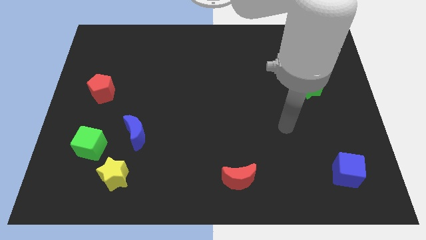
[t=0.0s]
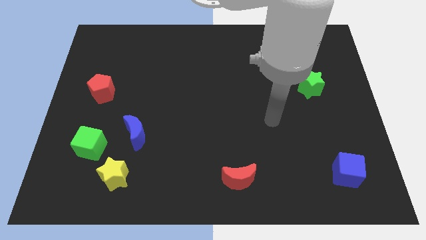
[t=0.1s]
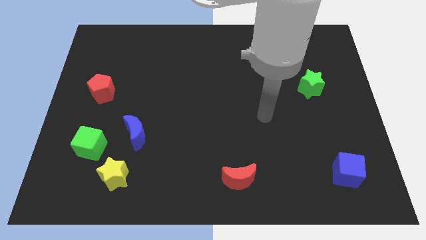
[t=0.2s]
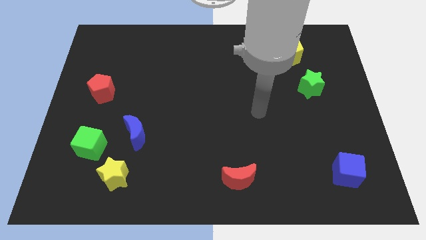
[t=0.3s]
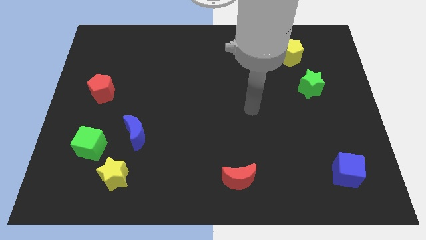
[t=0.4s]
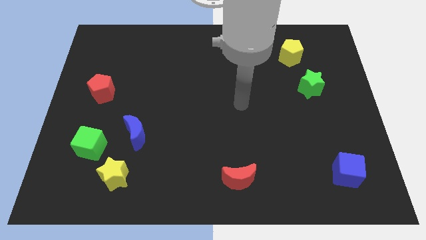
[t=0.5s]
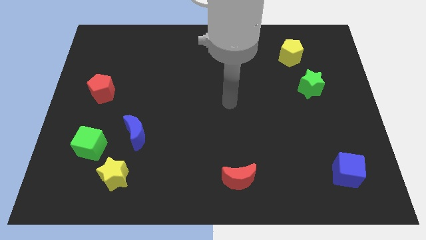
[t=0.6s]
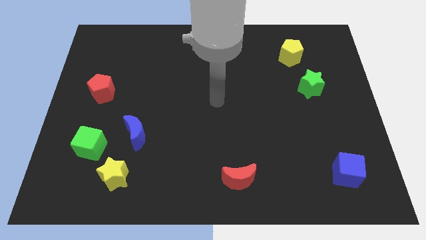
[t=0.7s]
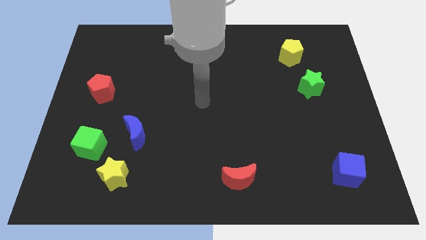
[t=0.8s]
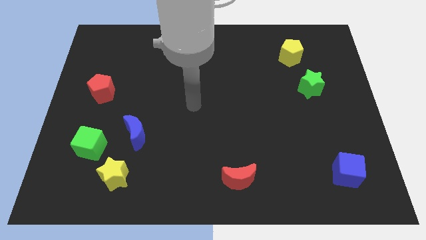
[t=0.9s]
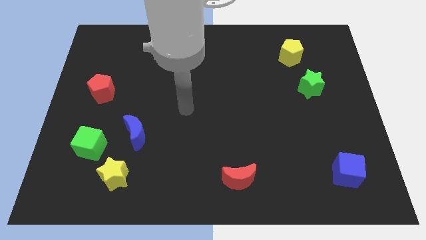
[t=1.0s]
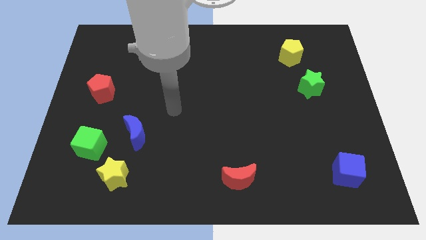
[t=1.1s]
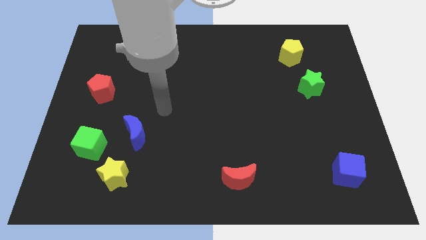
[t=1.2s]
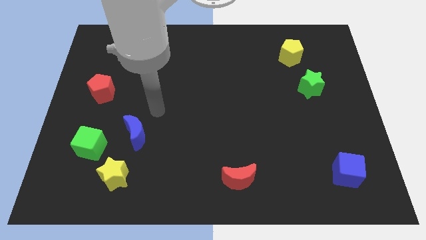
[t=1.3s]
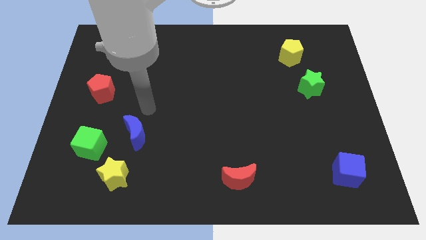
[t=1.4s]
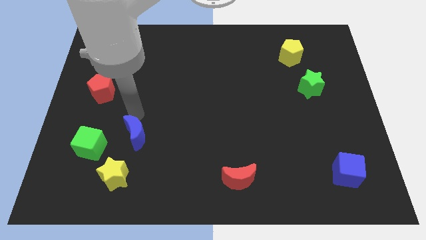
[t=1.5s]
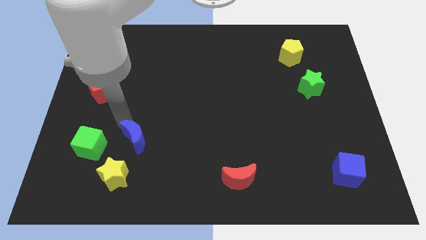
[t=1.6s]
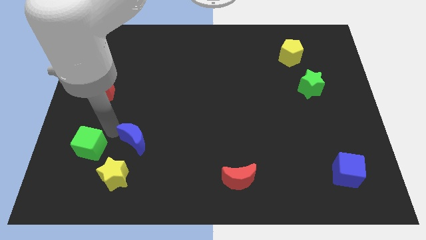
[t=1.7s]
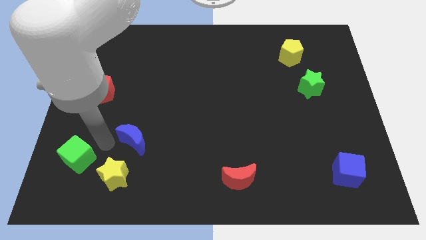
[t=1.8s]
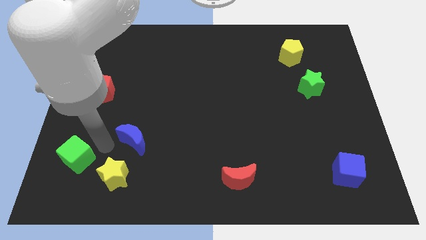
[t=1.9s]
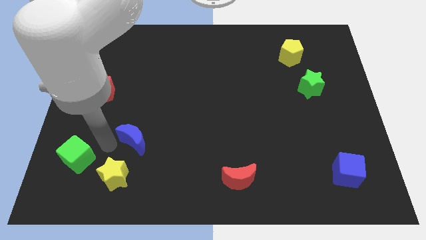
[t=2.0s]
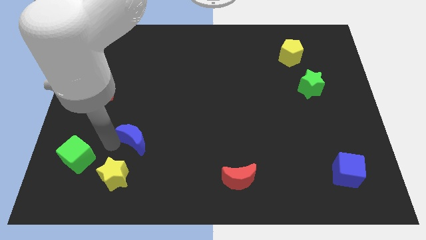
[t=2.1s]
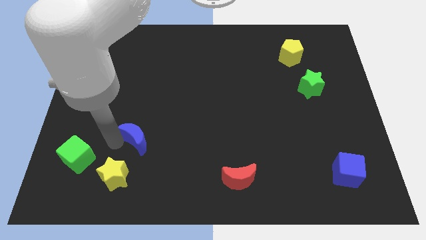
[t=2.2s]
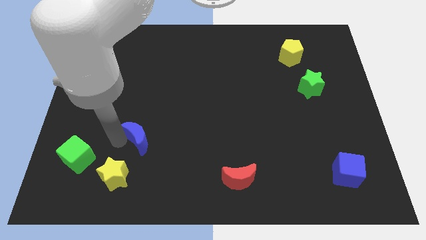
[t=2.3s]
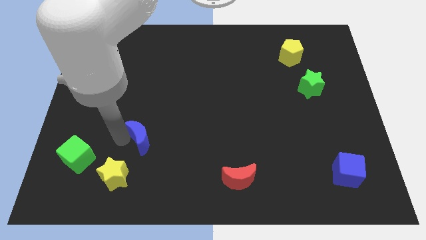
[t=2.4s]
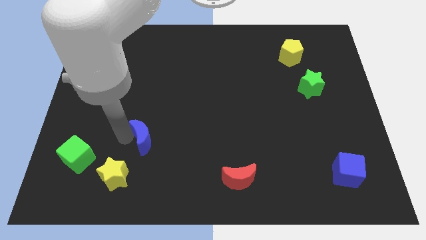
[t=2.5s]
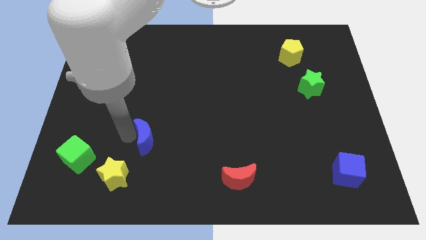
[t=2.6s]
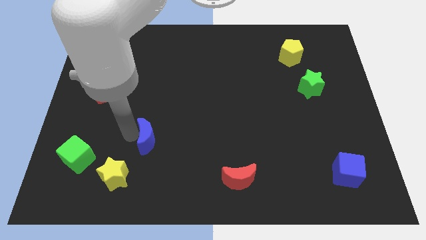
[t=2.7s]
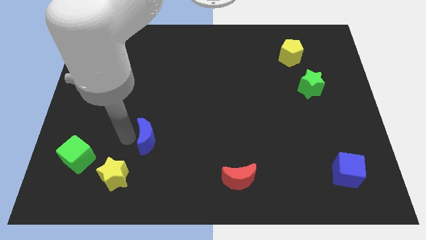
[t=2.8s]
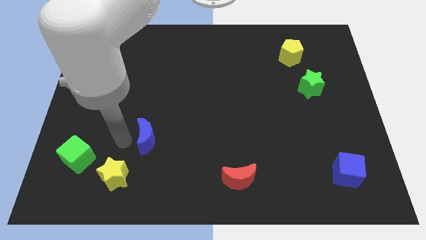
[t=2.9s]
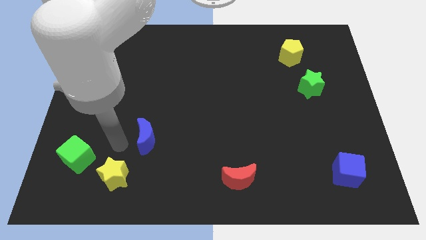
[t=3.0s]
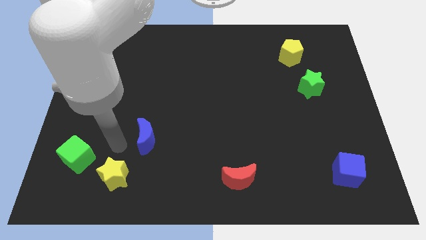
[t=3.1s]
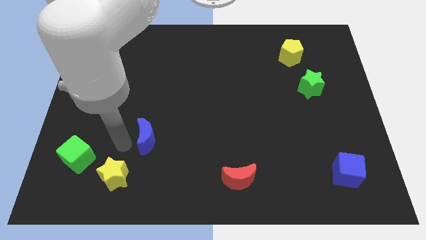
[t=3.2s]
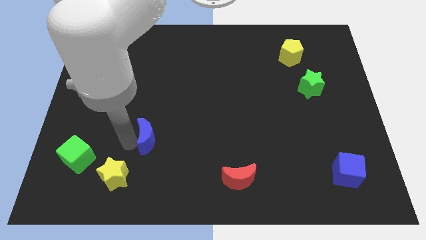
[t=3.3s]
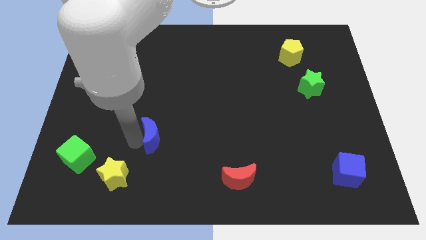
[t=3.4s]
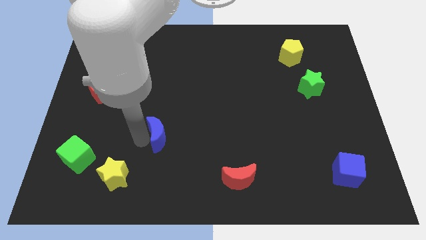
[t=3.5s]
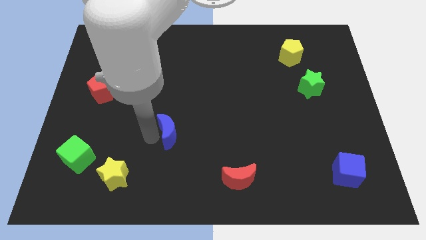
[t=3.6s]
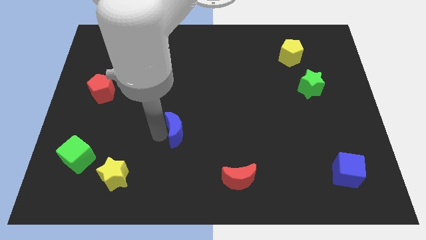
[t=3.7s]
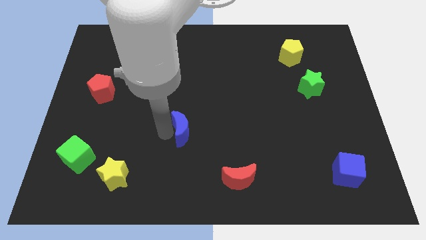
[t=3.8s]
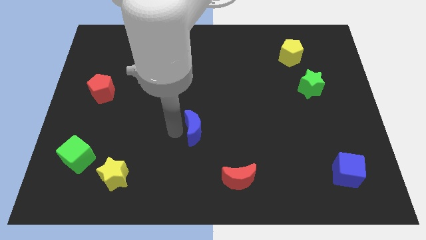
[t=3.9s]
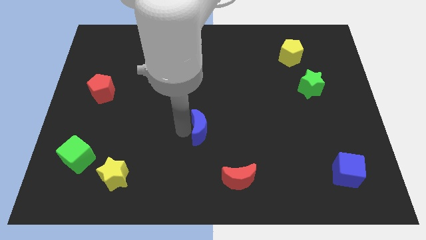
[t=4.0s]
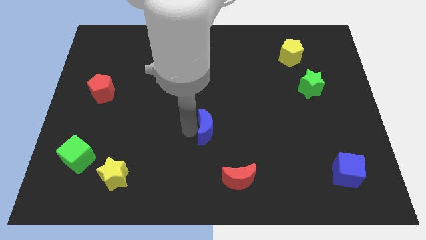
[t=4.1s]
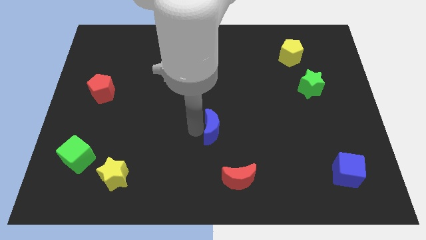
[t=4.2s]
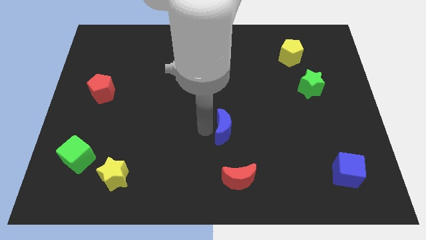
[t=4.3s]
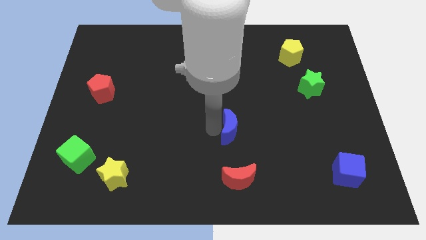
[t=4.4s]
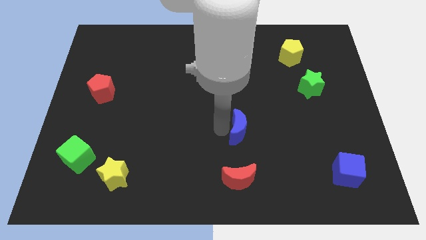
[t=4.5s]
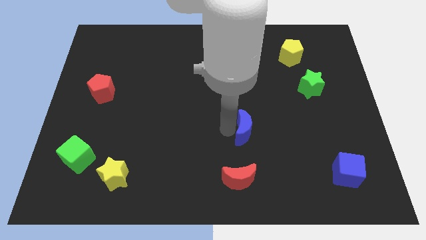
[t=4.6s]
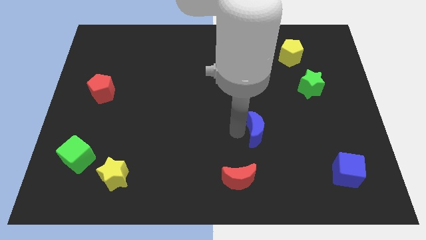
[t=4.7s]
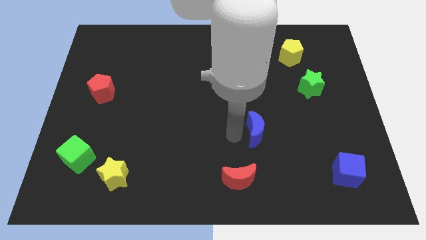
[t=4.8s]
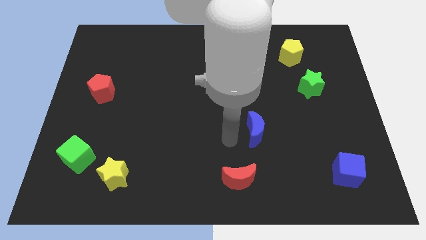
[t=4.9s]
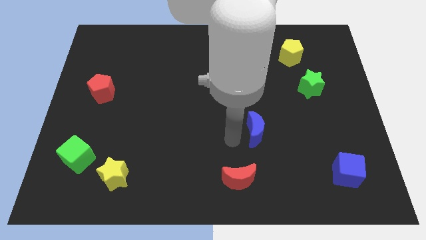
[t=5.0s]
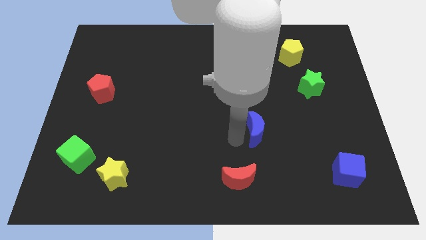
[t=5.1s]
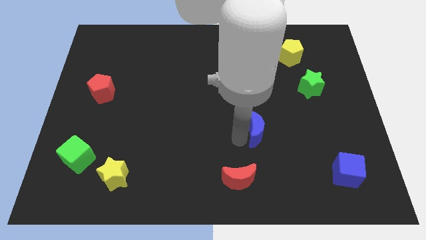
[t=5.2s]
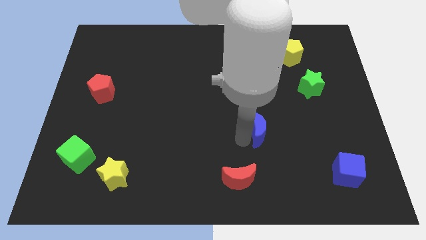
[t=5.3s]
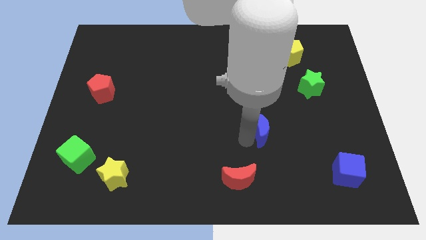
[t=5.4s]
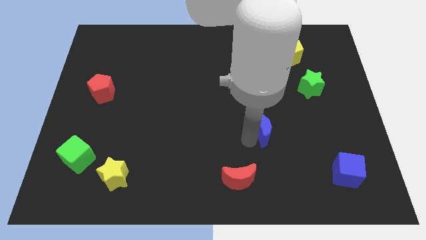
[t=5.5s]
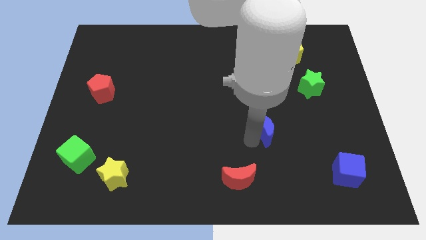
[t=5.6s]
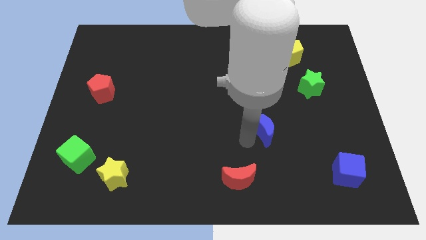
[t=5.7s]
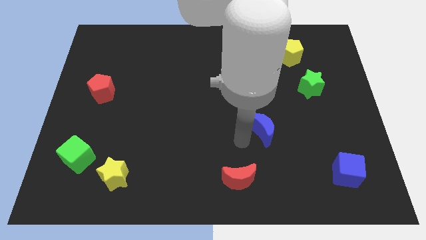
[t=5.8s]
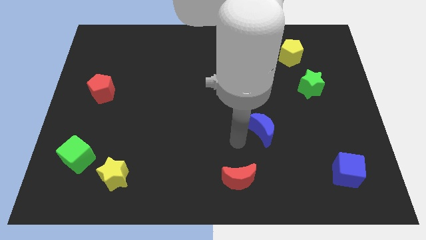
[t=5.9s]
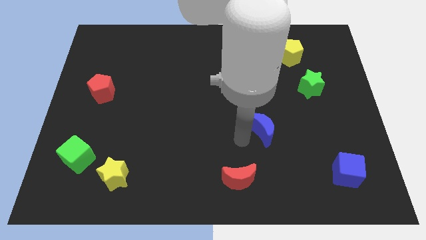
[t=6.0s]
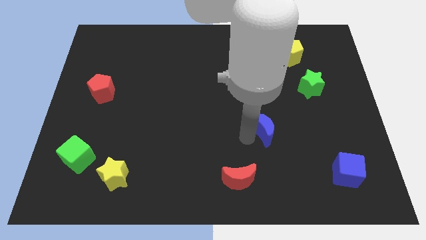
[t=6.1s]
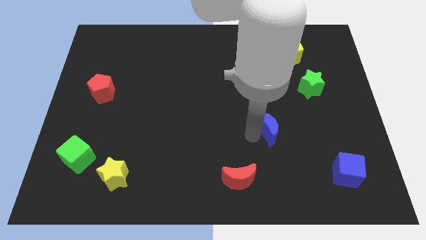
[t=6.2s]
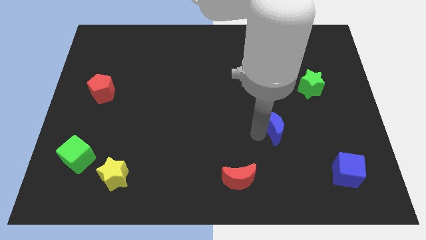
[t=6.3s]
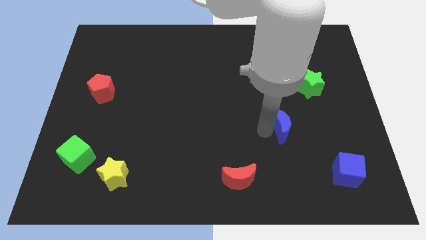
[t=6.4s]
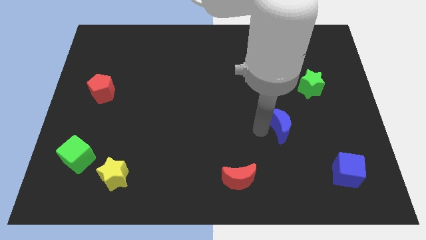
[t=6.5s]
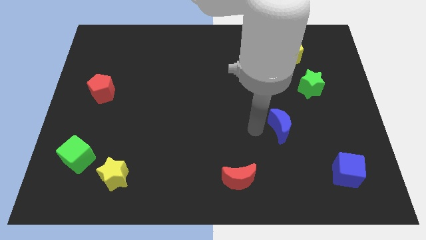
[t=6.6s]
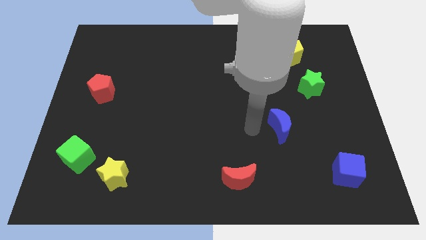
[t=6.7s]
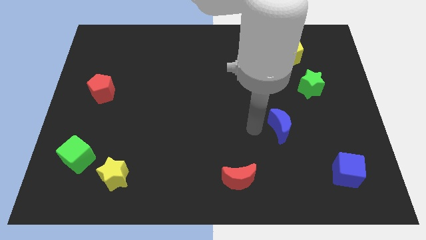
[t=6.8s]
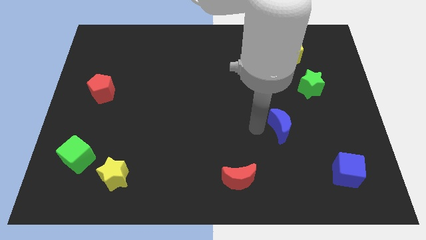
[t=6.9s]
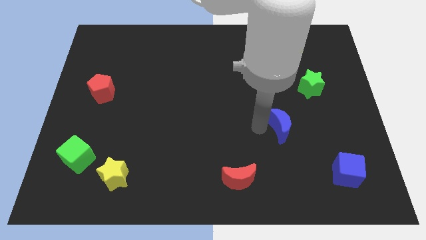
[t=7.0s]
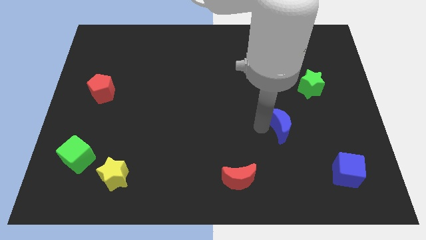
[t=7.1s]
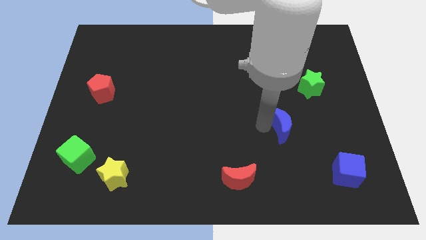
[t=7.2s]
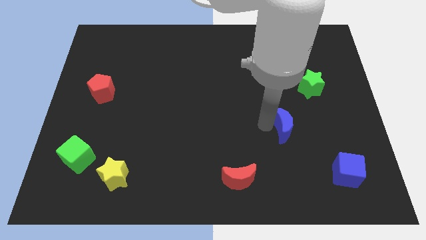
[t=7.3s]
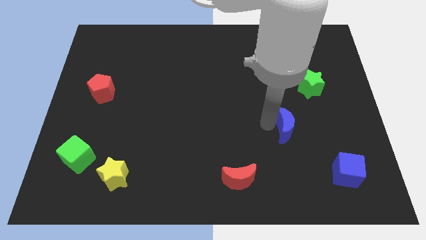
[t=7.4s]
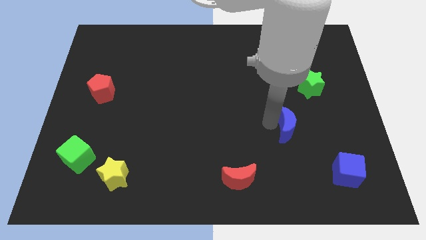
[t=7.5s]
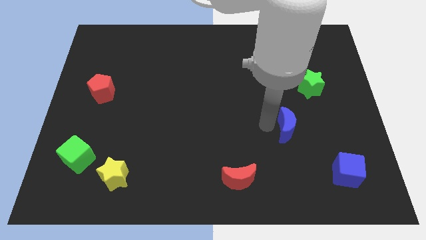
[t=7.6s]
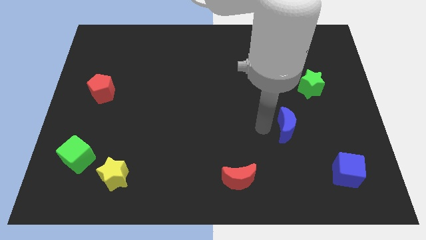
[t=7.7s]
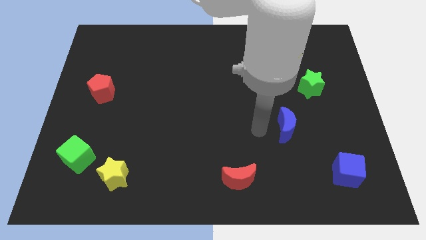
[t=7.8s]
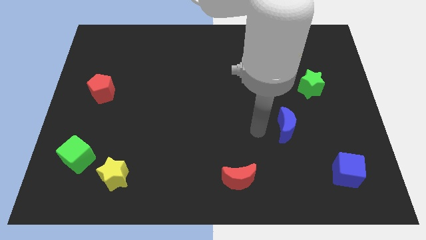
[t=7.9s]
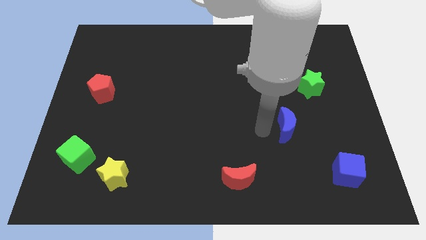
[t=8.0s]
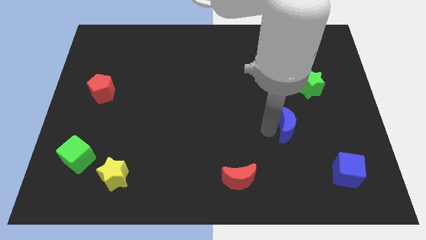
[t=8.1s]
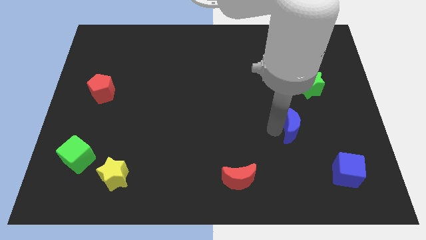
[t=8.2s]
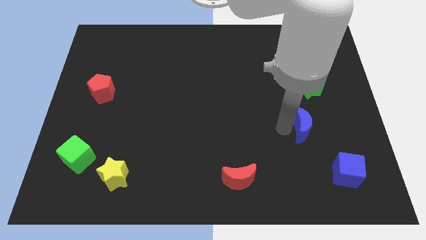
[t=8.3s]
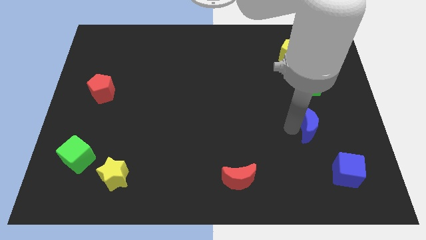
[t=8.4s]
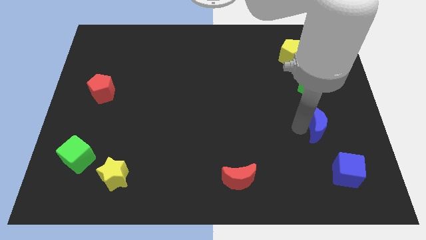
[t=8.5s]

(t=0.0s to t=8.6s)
slide the blue moon to the top side of the blue cube
